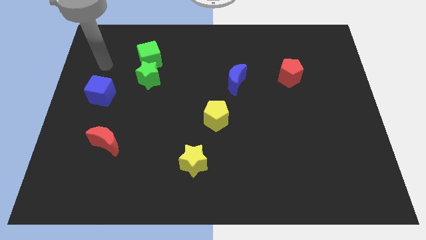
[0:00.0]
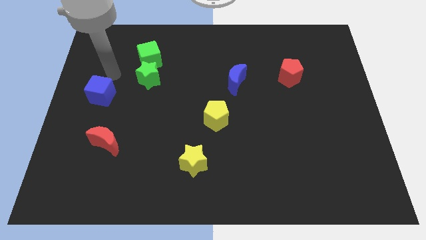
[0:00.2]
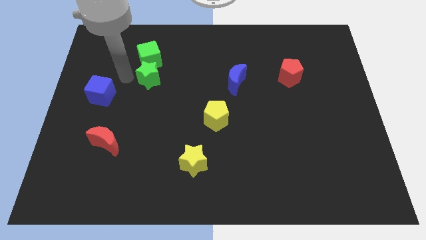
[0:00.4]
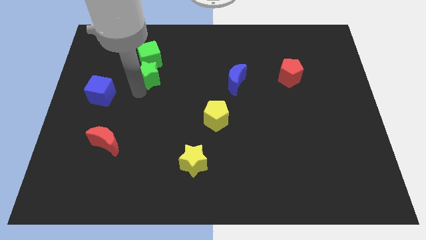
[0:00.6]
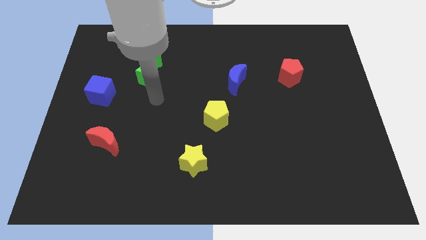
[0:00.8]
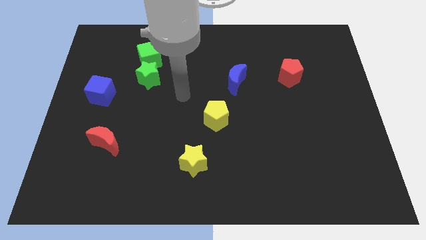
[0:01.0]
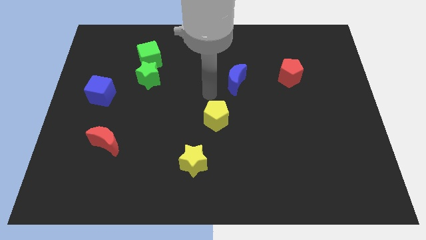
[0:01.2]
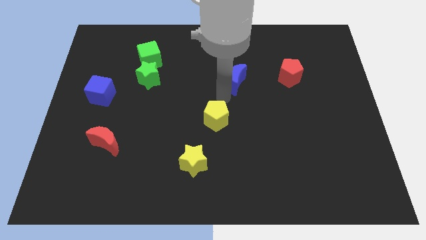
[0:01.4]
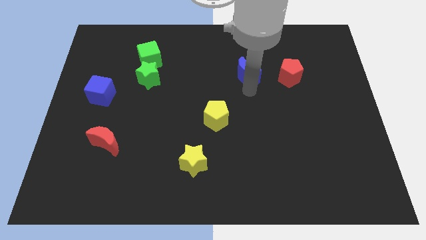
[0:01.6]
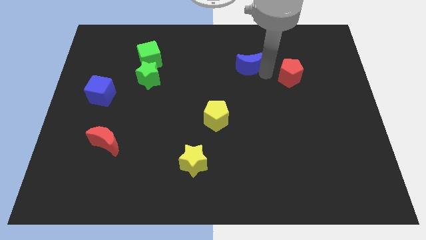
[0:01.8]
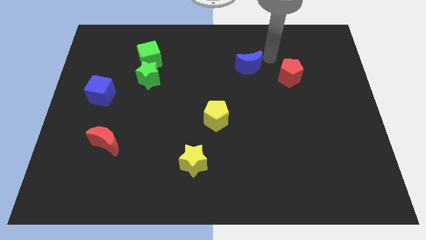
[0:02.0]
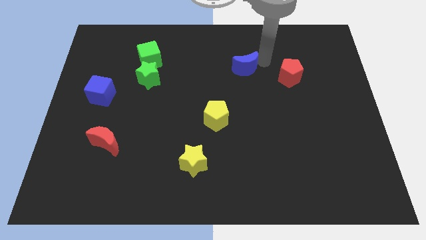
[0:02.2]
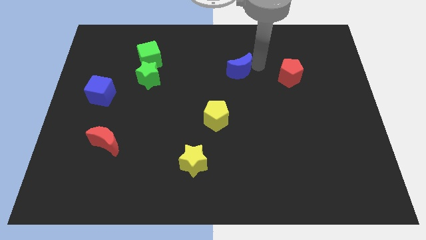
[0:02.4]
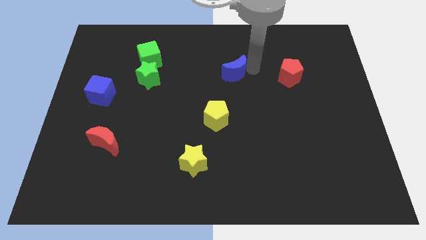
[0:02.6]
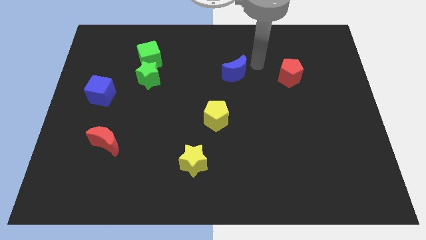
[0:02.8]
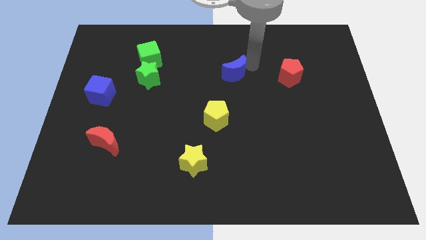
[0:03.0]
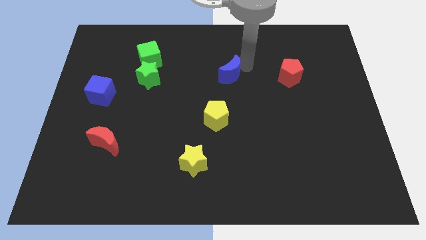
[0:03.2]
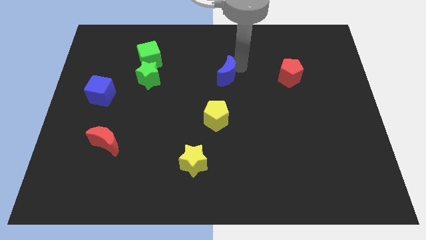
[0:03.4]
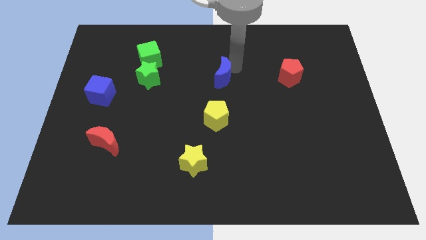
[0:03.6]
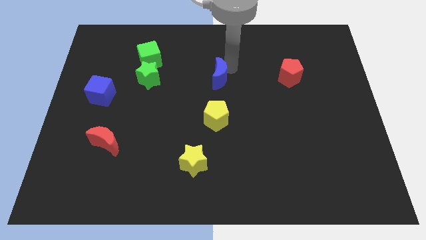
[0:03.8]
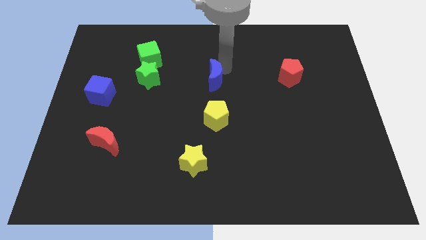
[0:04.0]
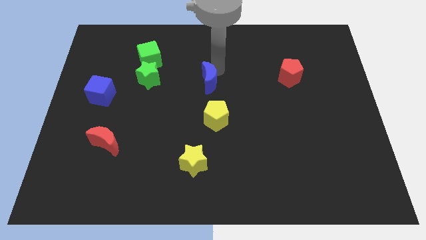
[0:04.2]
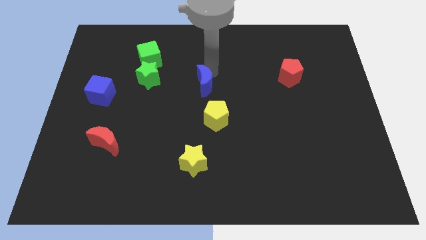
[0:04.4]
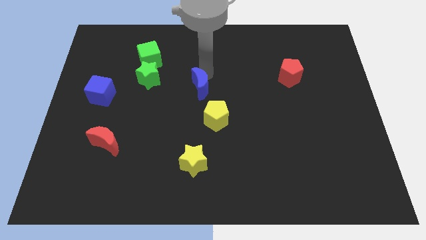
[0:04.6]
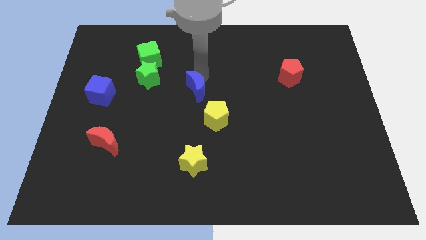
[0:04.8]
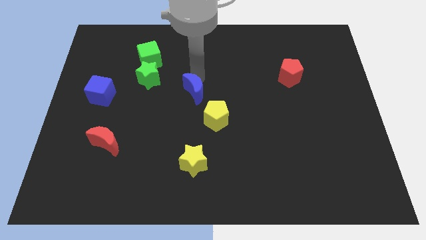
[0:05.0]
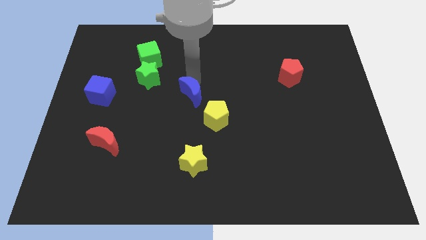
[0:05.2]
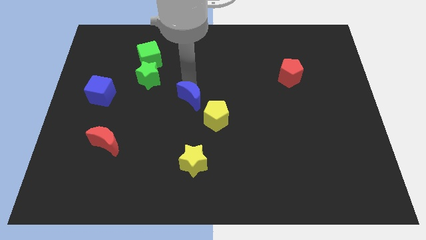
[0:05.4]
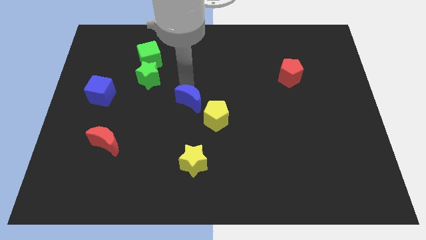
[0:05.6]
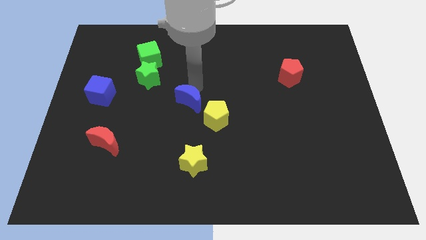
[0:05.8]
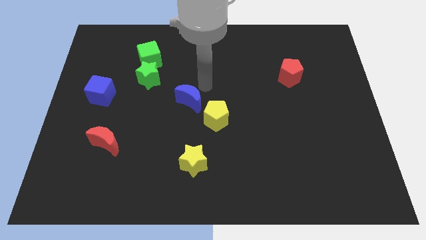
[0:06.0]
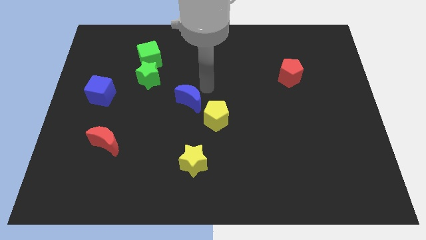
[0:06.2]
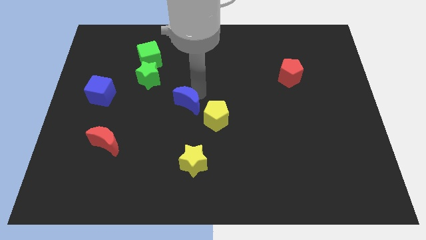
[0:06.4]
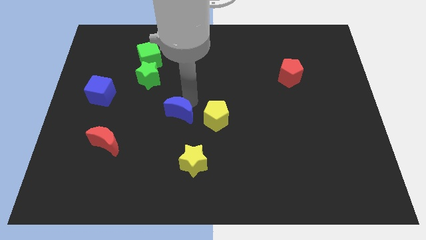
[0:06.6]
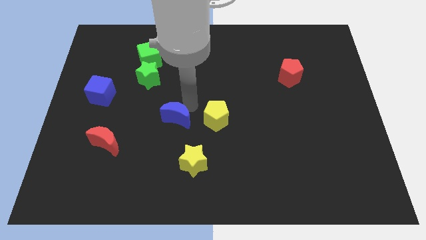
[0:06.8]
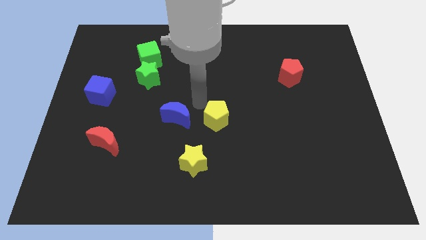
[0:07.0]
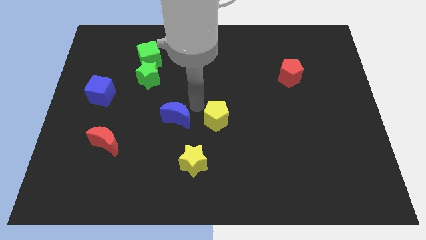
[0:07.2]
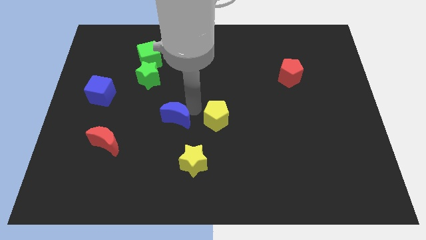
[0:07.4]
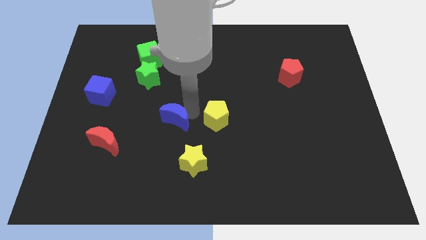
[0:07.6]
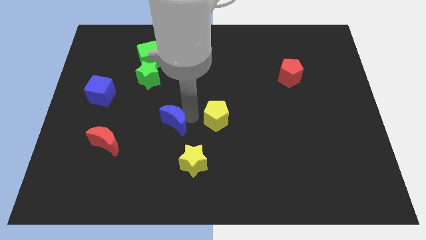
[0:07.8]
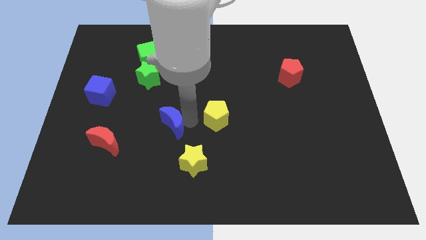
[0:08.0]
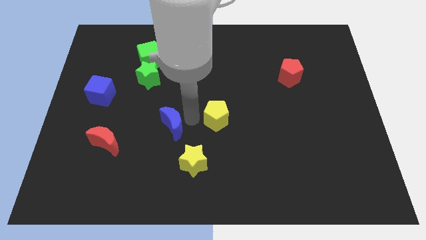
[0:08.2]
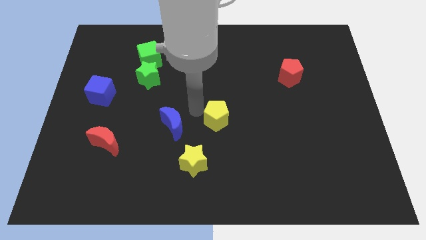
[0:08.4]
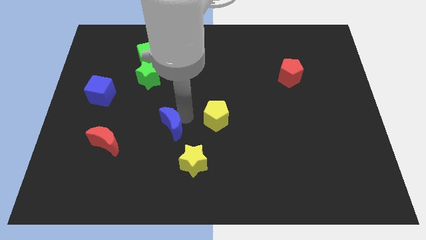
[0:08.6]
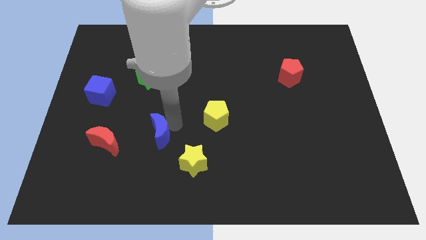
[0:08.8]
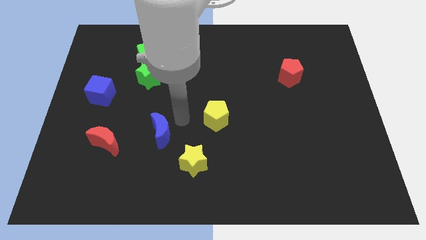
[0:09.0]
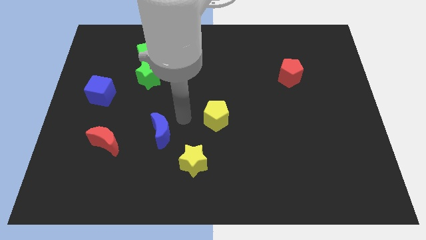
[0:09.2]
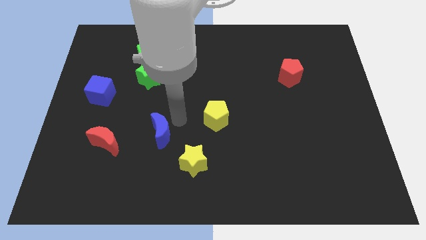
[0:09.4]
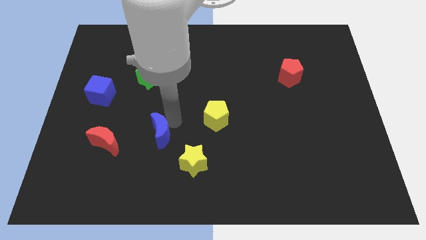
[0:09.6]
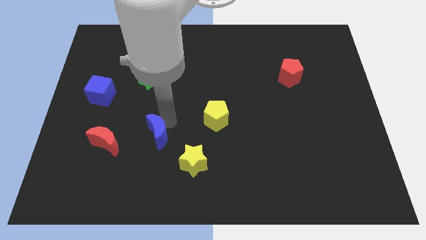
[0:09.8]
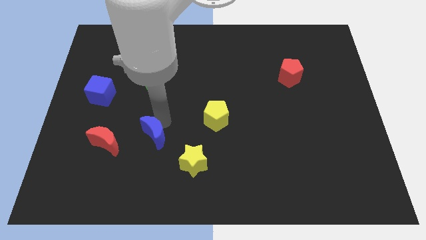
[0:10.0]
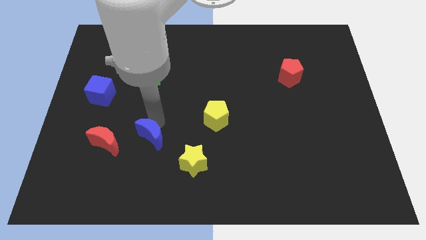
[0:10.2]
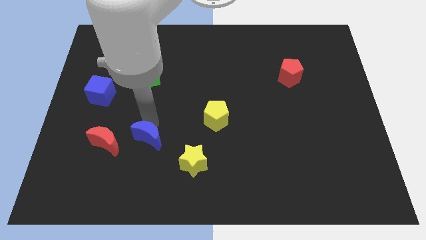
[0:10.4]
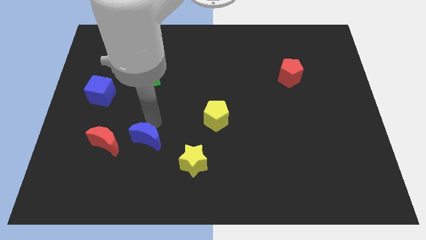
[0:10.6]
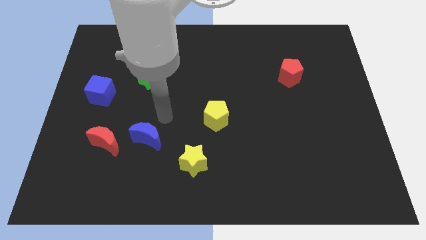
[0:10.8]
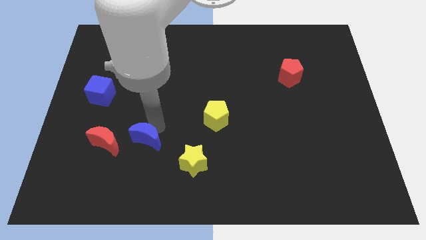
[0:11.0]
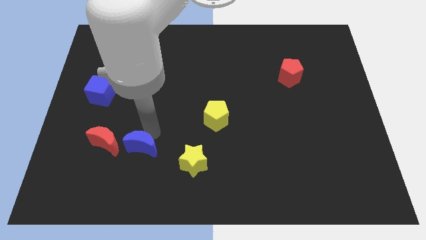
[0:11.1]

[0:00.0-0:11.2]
move the blue moon to the bottom right side of the red moon

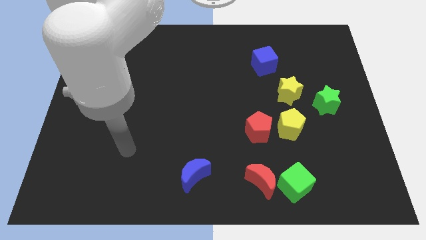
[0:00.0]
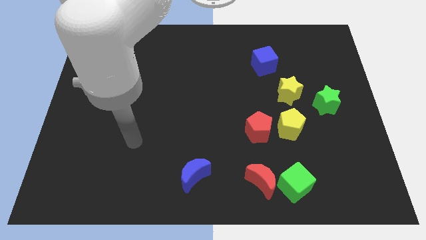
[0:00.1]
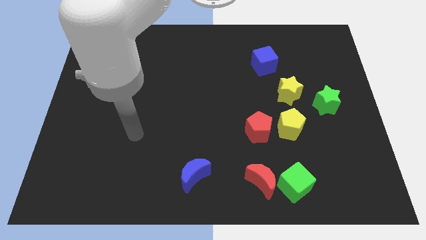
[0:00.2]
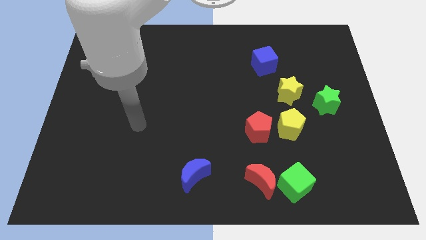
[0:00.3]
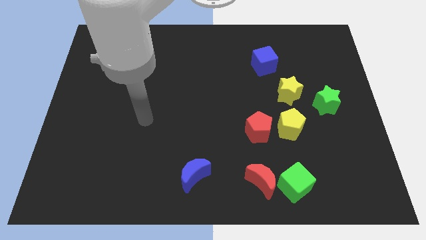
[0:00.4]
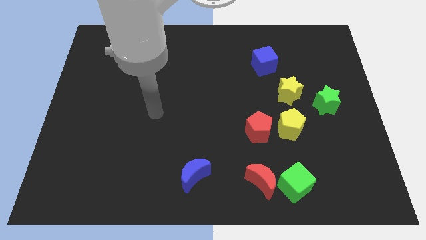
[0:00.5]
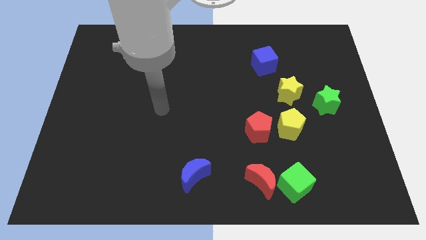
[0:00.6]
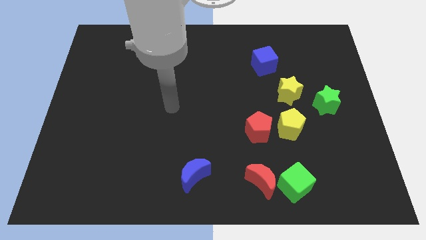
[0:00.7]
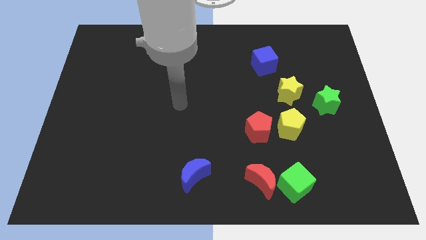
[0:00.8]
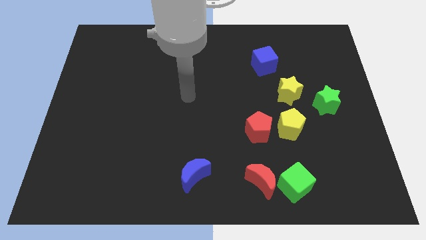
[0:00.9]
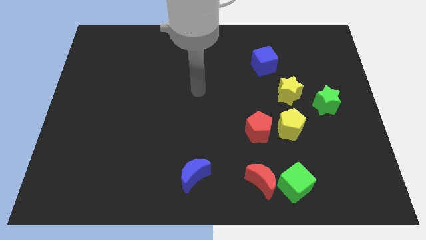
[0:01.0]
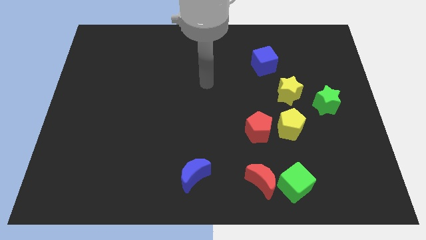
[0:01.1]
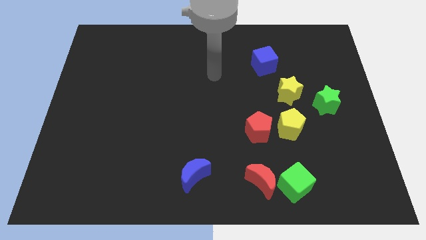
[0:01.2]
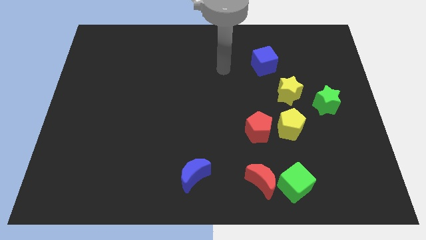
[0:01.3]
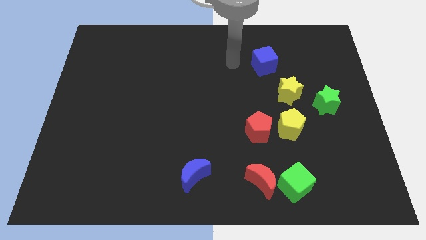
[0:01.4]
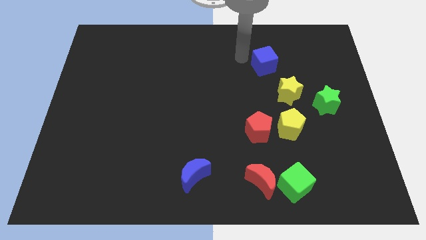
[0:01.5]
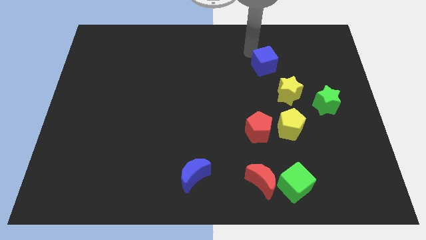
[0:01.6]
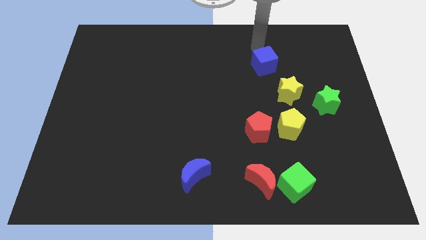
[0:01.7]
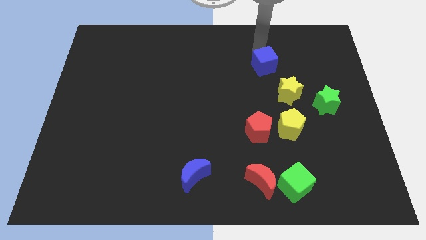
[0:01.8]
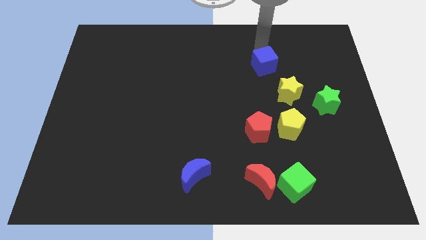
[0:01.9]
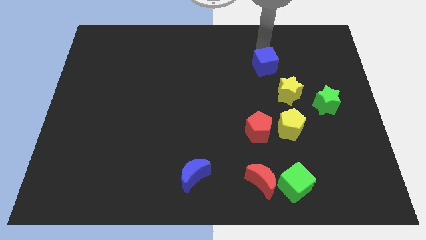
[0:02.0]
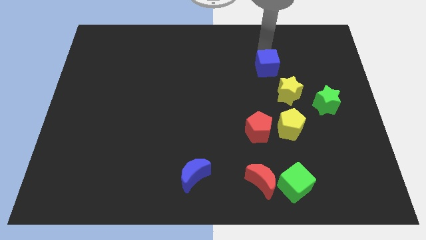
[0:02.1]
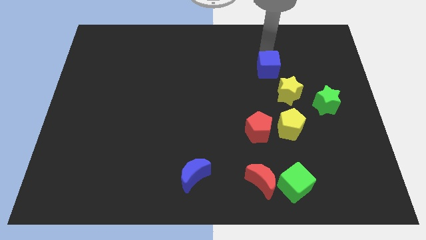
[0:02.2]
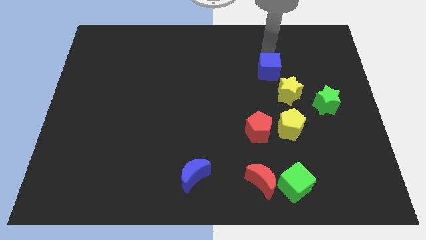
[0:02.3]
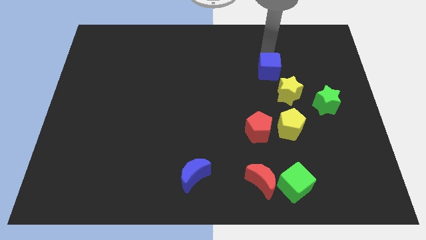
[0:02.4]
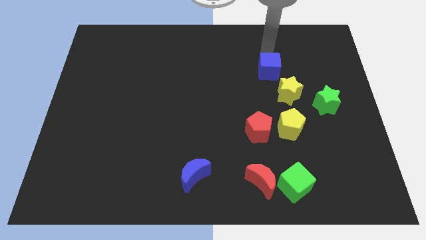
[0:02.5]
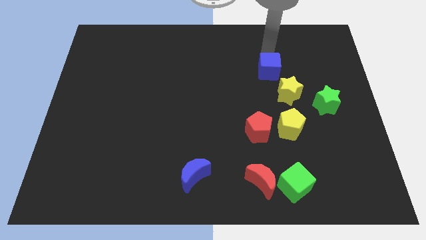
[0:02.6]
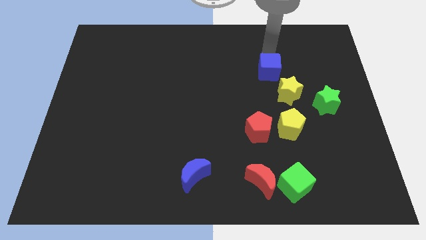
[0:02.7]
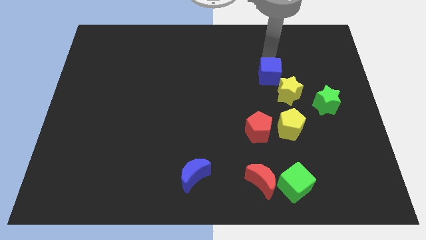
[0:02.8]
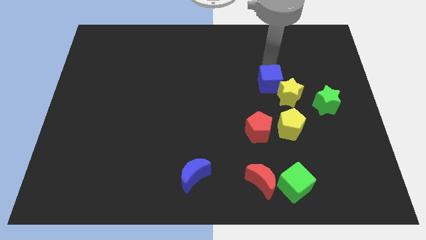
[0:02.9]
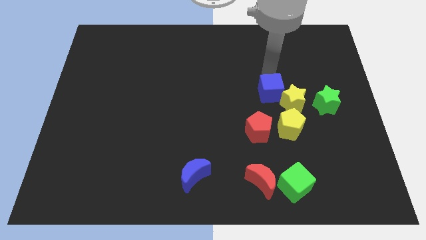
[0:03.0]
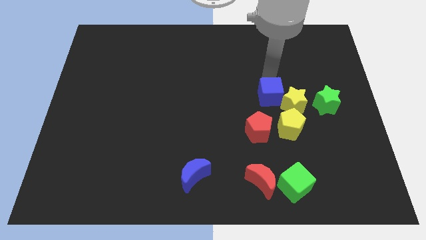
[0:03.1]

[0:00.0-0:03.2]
slide the blue cube diagonally up and to the right of the red pentagon
